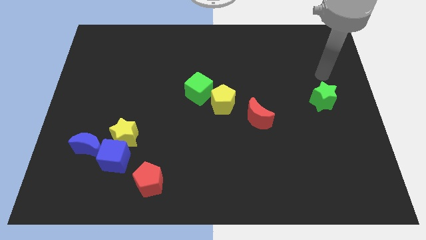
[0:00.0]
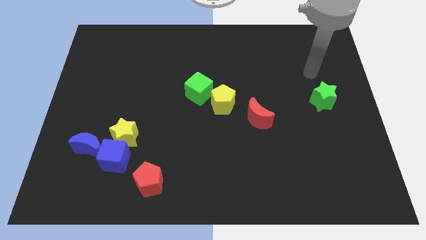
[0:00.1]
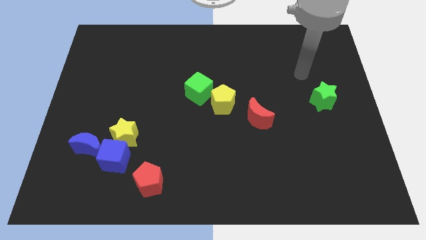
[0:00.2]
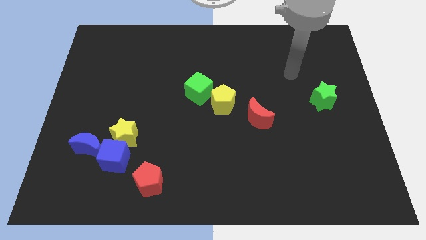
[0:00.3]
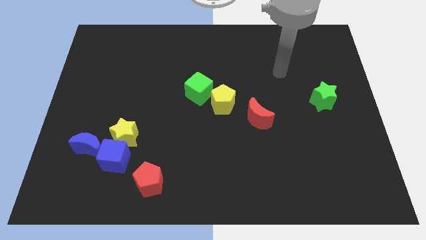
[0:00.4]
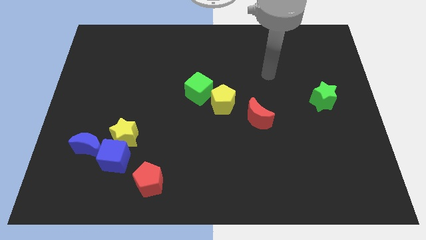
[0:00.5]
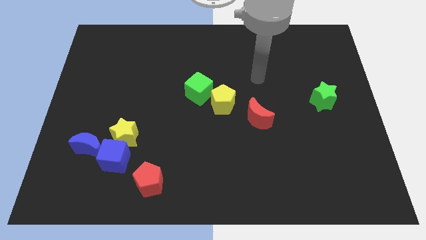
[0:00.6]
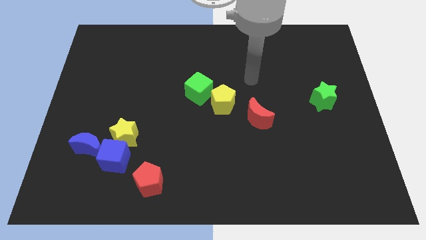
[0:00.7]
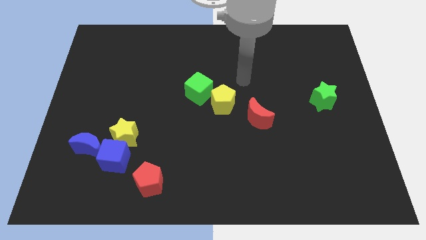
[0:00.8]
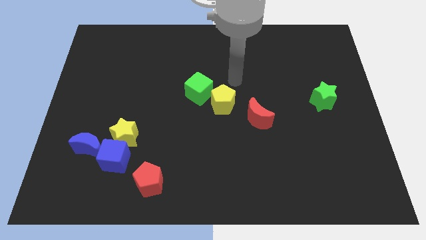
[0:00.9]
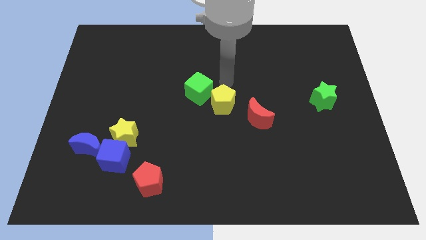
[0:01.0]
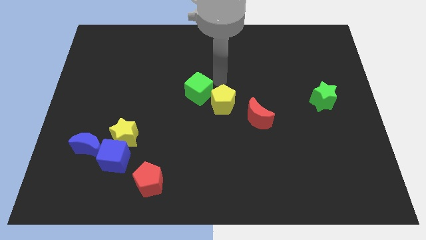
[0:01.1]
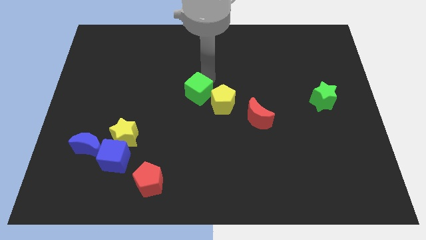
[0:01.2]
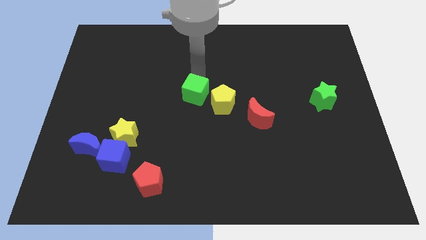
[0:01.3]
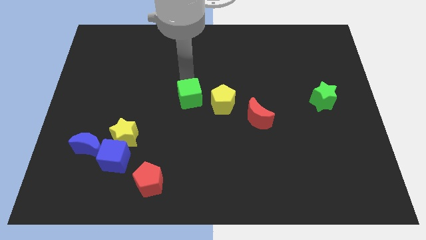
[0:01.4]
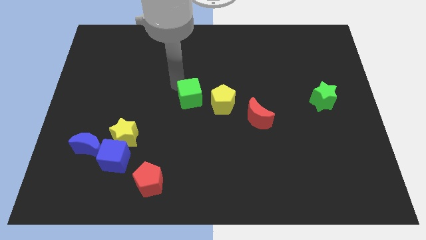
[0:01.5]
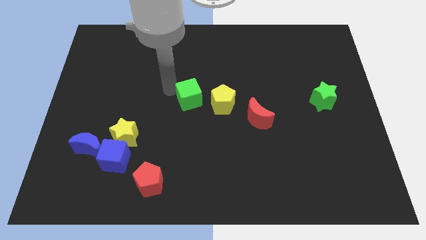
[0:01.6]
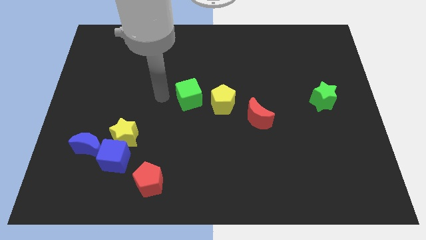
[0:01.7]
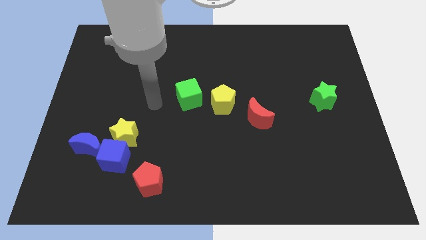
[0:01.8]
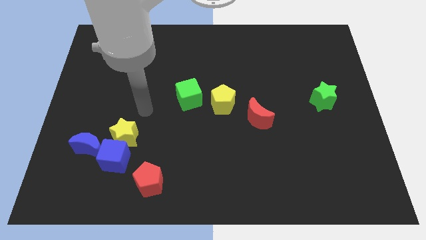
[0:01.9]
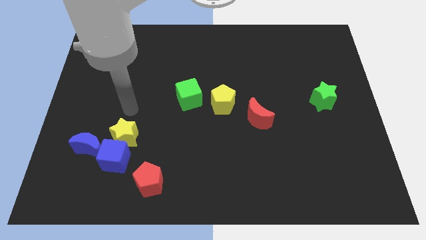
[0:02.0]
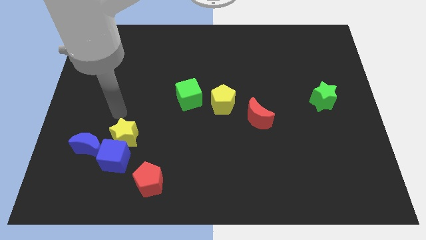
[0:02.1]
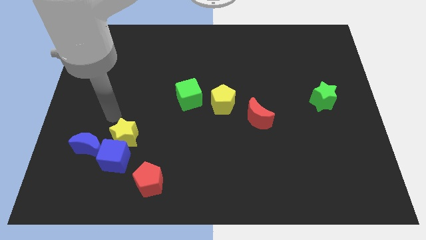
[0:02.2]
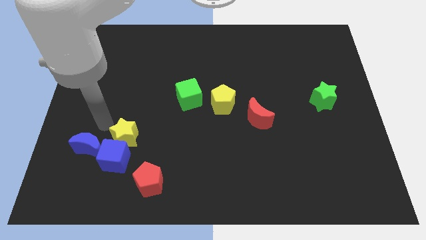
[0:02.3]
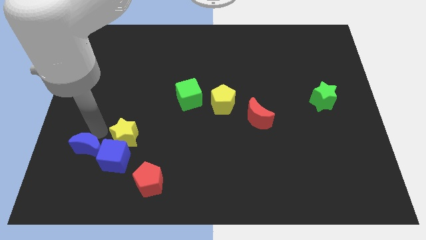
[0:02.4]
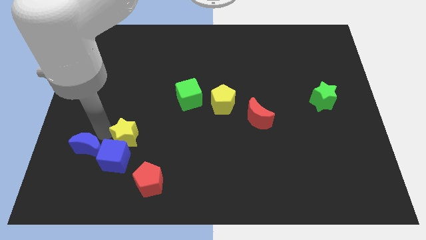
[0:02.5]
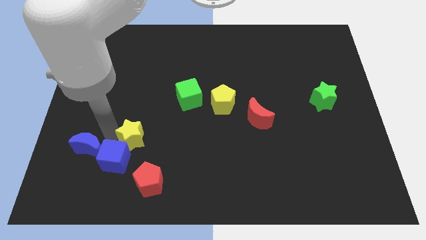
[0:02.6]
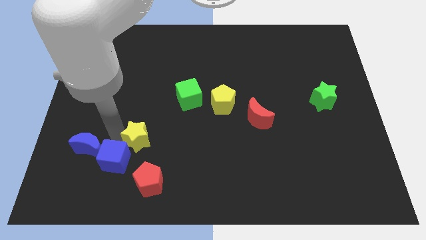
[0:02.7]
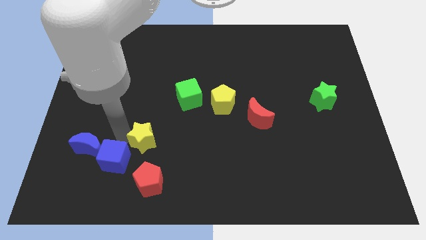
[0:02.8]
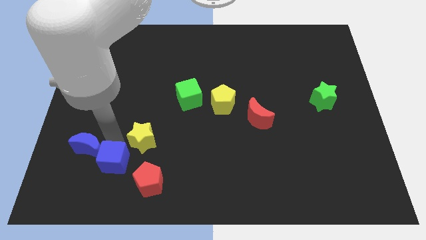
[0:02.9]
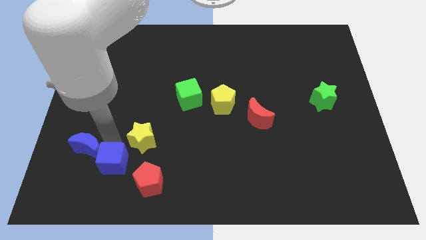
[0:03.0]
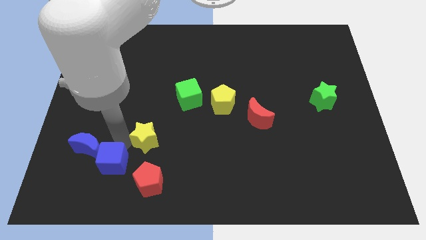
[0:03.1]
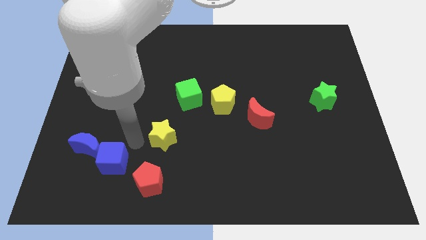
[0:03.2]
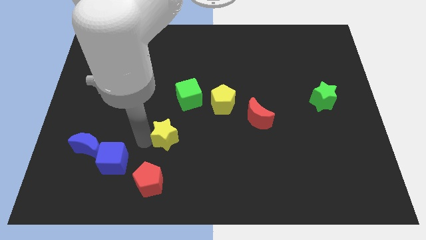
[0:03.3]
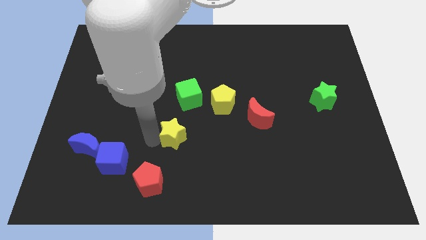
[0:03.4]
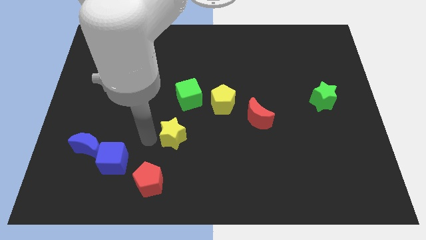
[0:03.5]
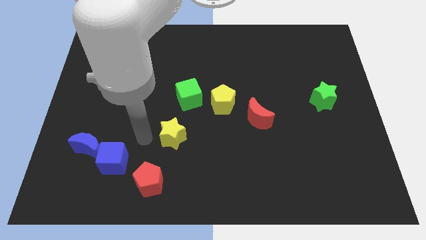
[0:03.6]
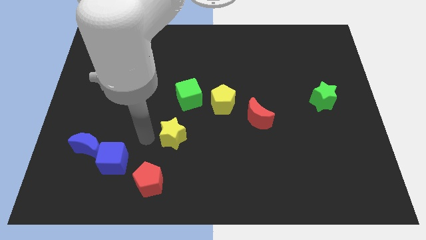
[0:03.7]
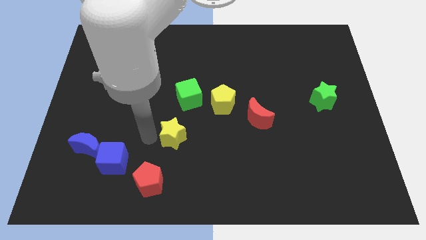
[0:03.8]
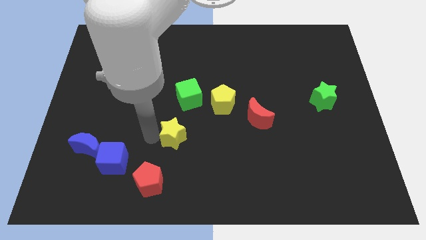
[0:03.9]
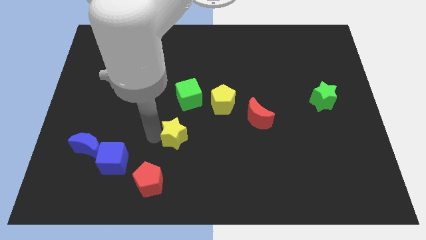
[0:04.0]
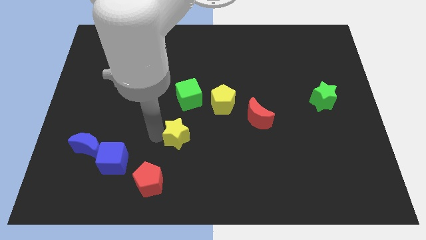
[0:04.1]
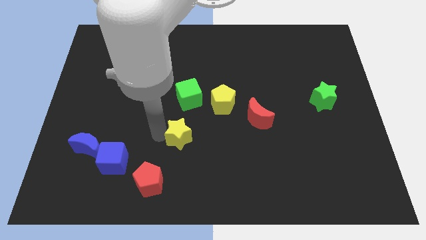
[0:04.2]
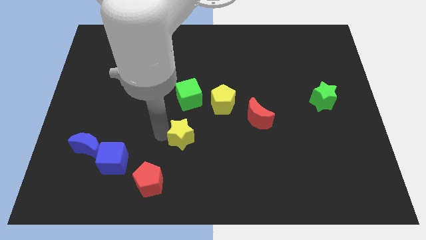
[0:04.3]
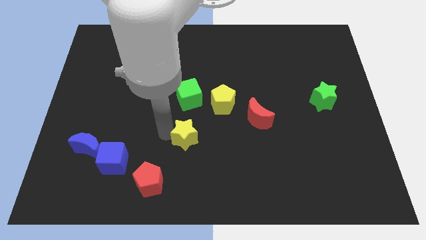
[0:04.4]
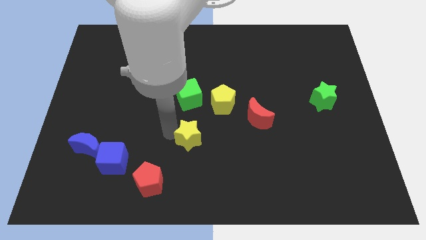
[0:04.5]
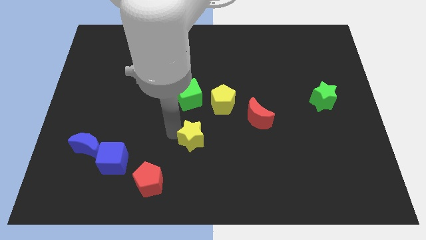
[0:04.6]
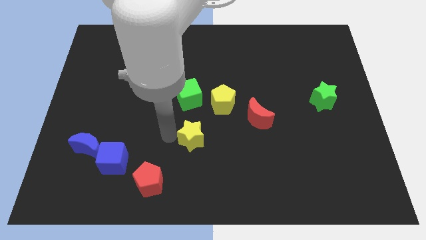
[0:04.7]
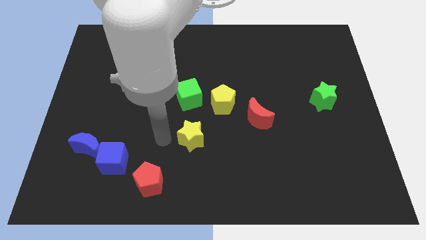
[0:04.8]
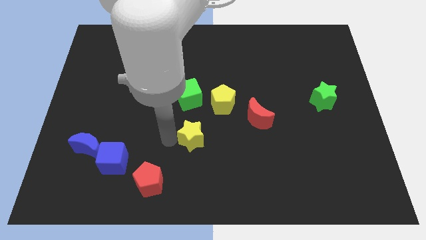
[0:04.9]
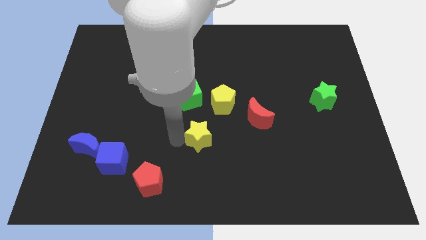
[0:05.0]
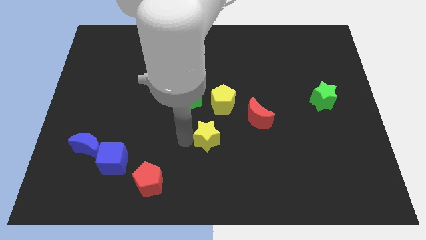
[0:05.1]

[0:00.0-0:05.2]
push the yellow star to the bottom of the yellow pentagon

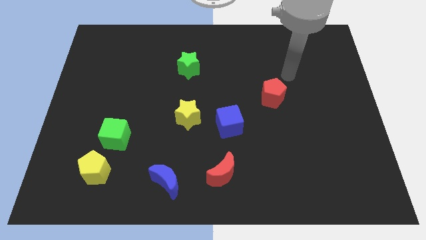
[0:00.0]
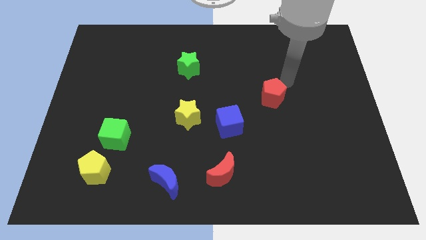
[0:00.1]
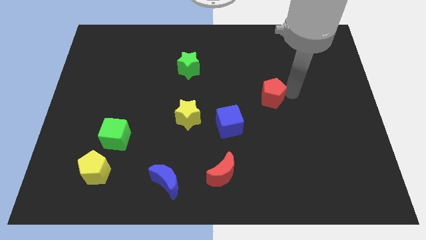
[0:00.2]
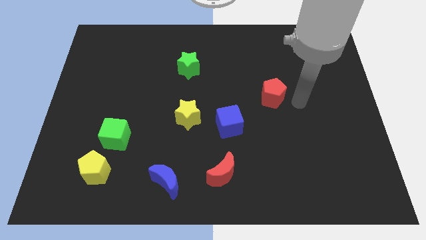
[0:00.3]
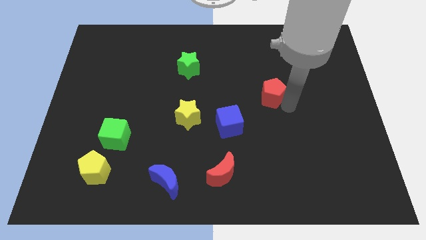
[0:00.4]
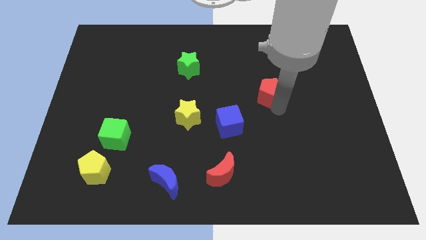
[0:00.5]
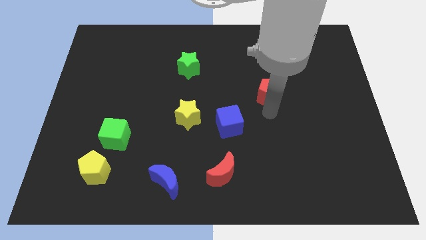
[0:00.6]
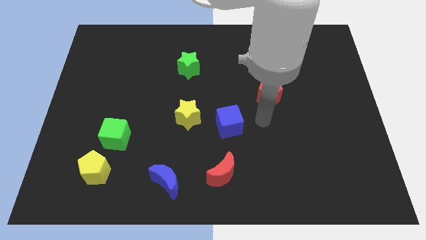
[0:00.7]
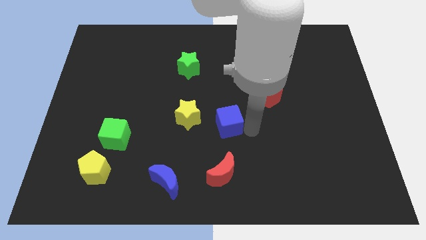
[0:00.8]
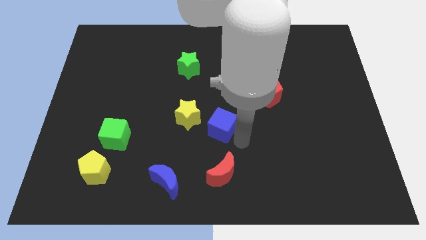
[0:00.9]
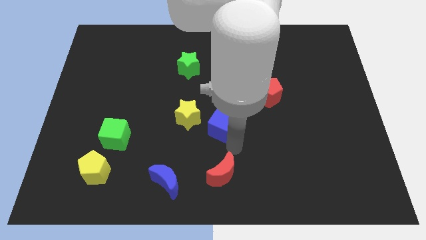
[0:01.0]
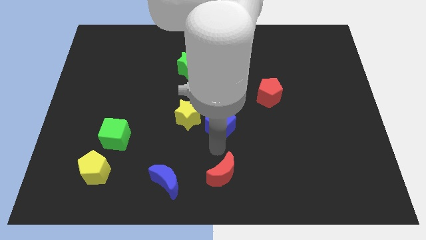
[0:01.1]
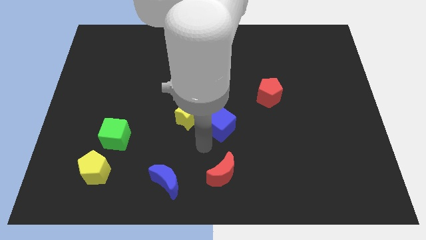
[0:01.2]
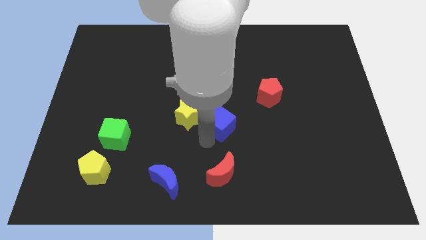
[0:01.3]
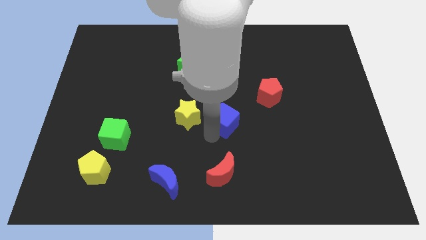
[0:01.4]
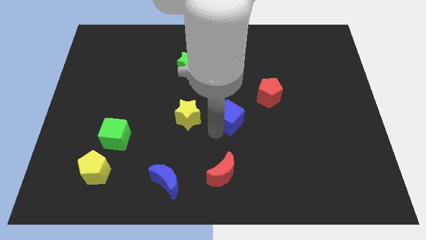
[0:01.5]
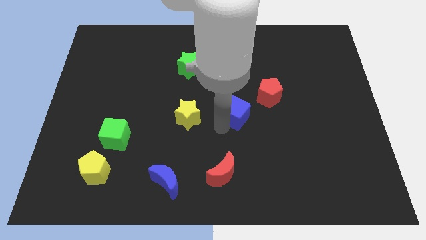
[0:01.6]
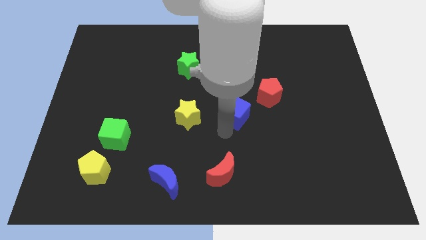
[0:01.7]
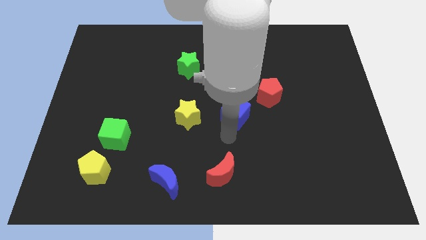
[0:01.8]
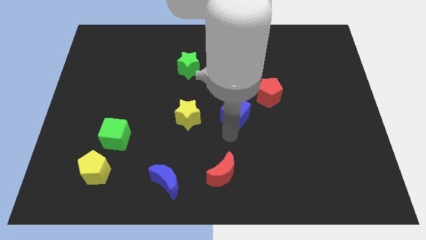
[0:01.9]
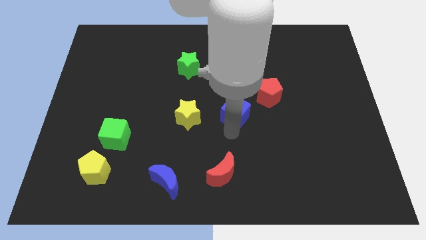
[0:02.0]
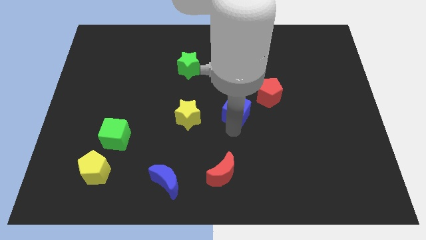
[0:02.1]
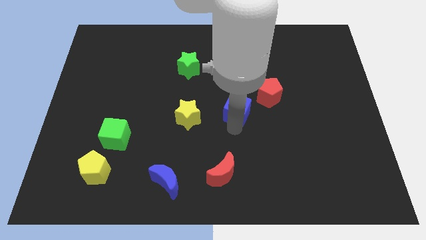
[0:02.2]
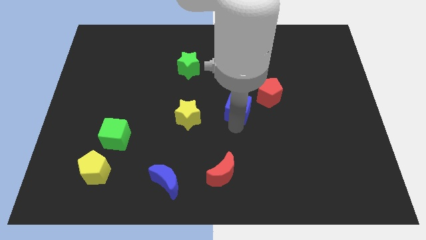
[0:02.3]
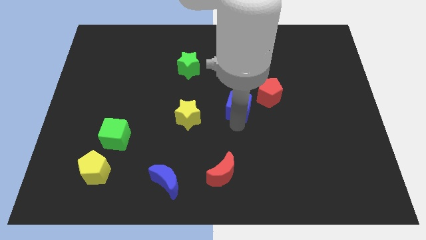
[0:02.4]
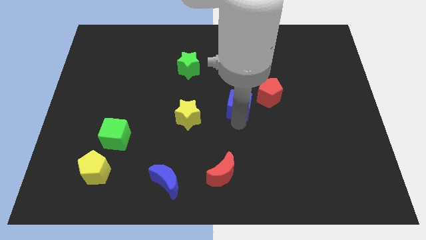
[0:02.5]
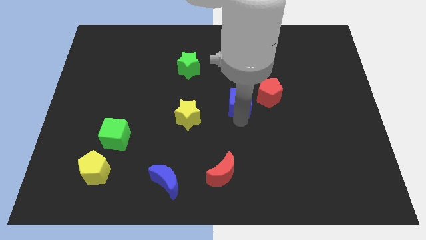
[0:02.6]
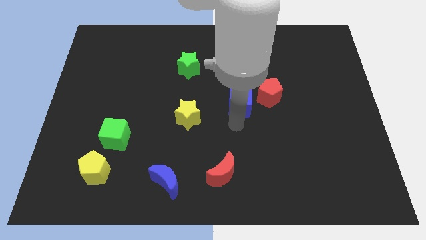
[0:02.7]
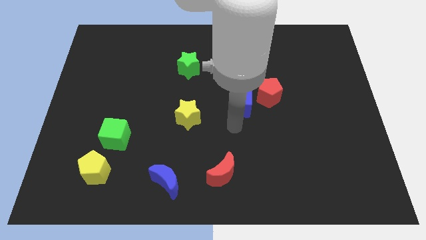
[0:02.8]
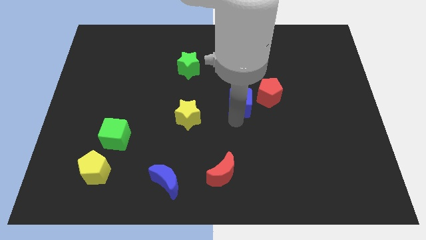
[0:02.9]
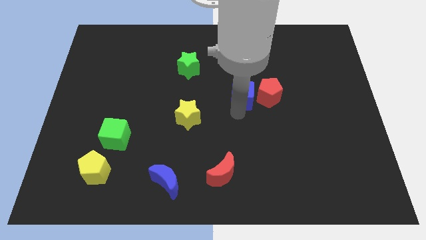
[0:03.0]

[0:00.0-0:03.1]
put the blue cube diagonally up and to the left of the red pentagon
